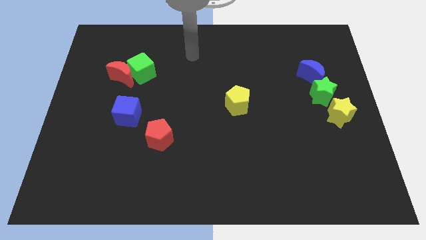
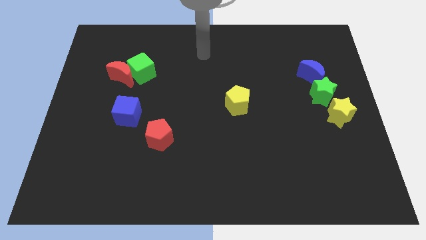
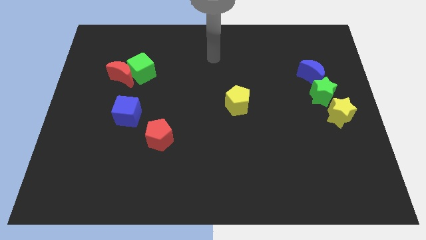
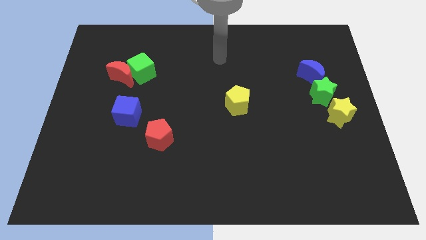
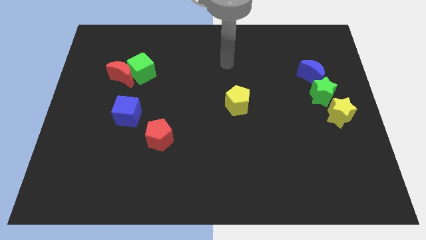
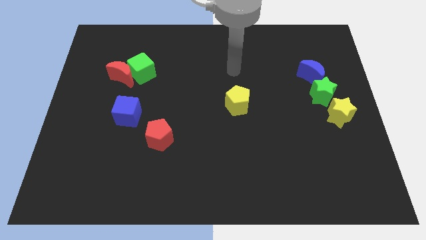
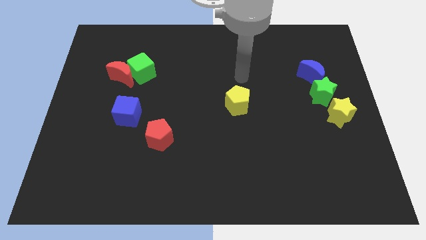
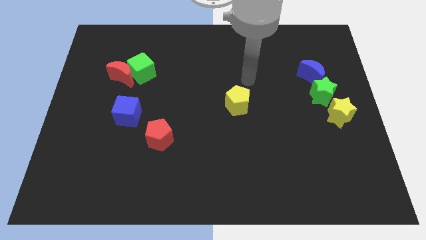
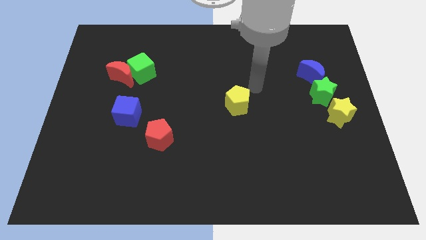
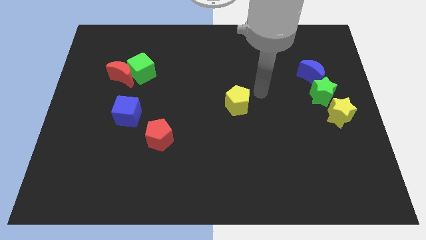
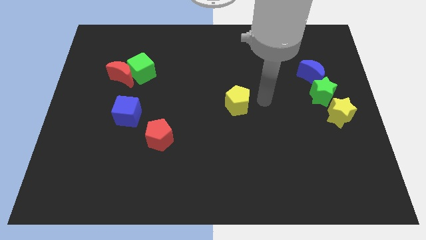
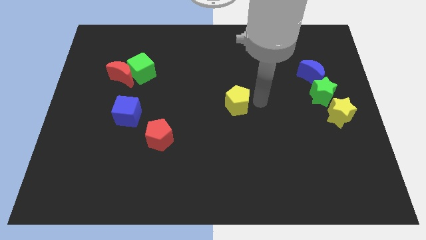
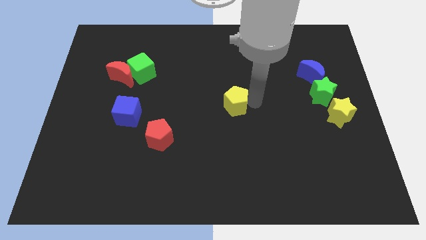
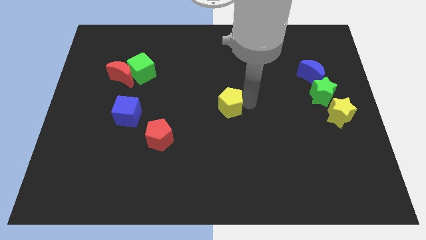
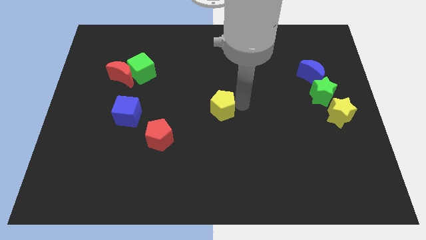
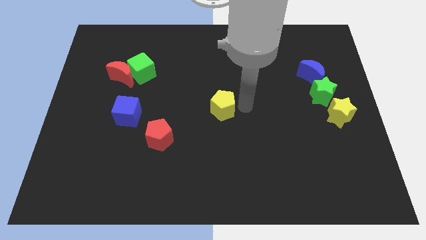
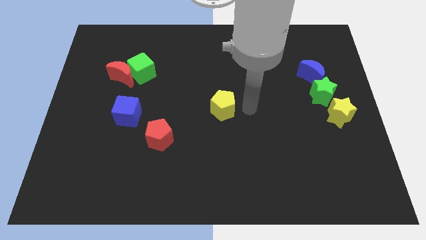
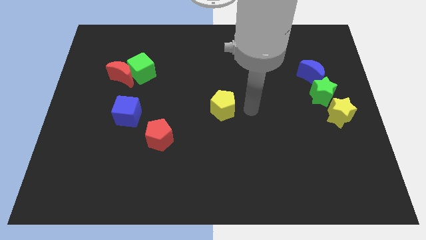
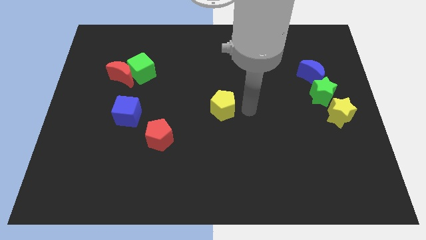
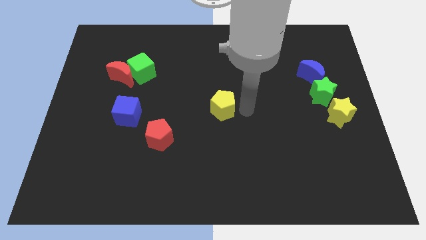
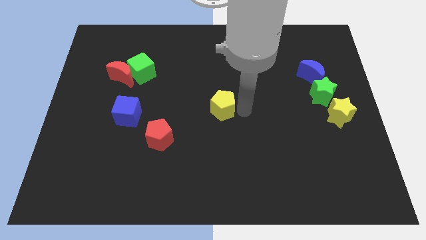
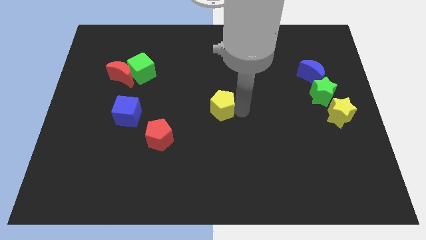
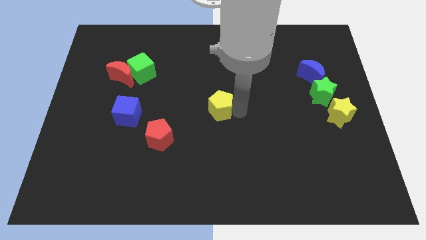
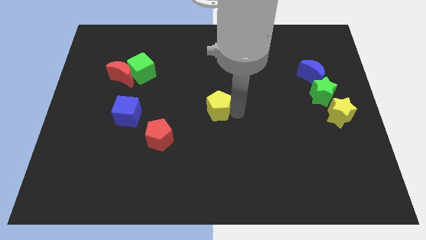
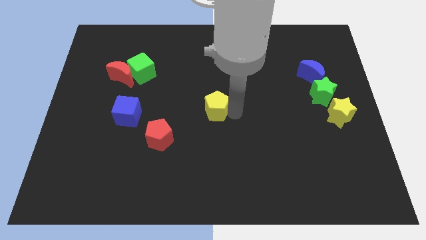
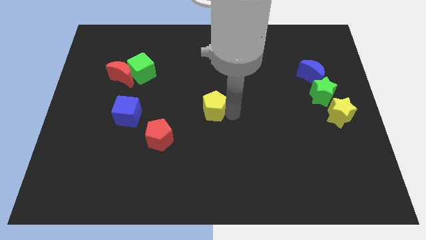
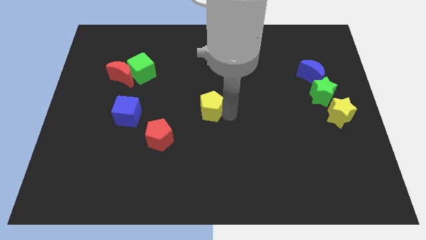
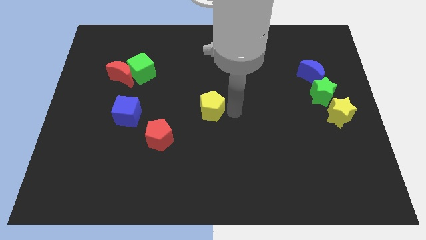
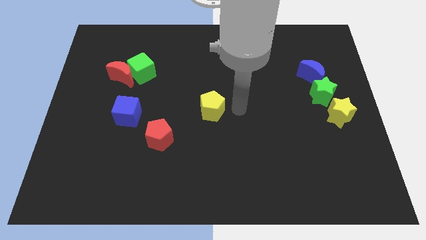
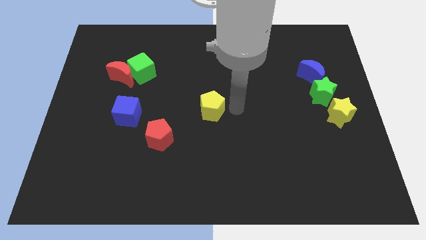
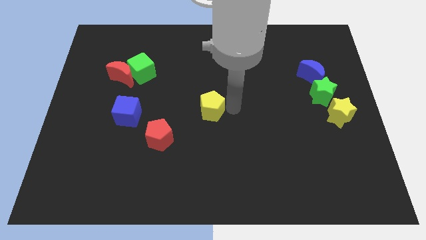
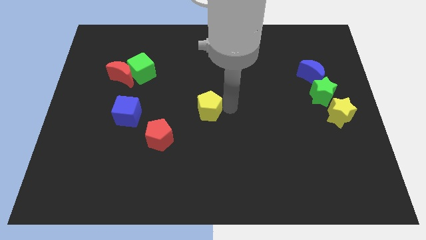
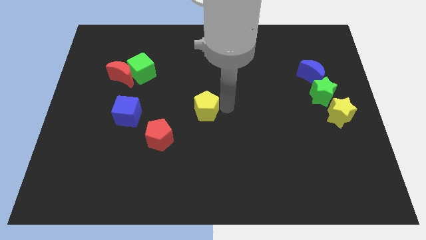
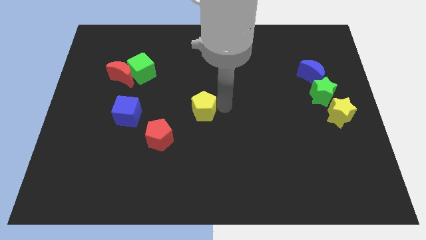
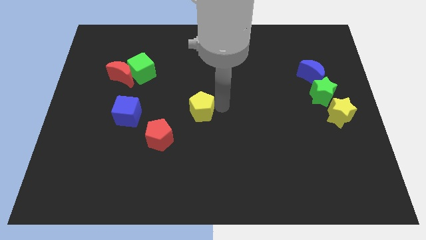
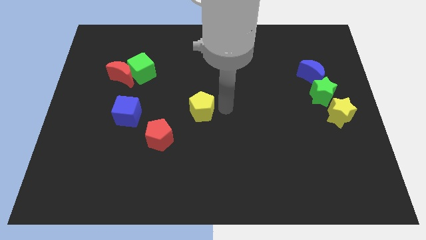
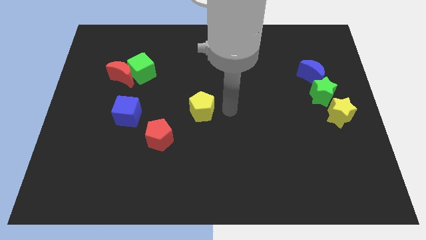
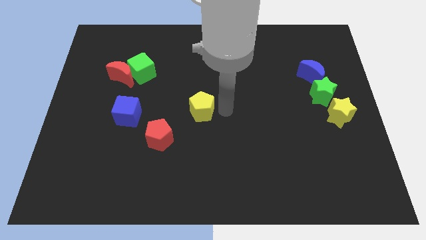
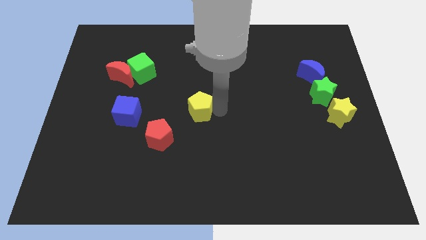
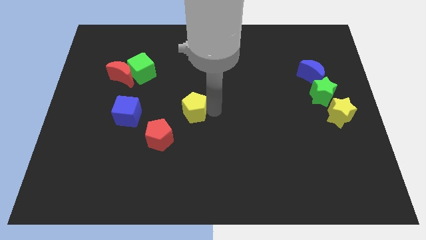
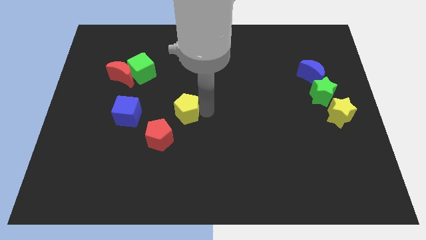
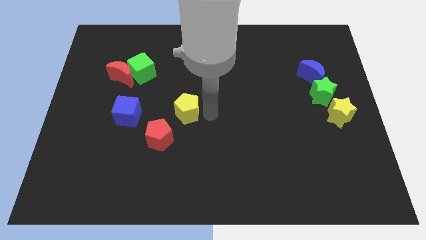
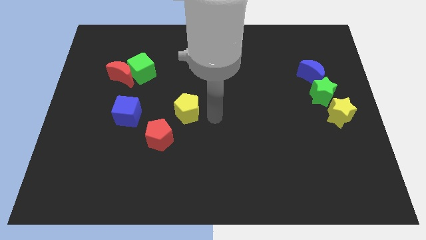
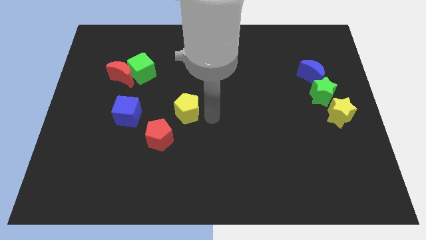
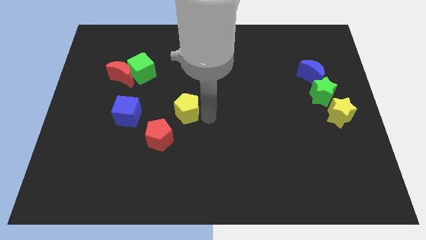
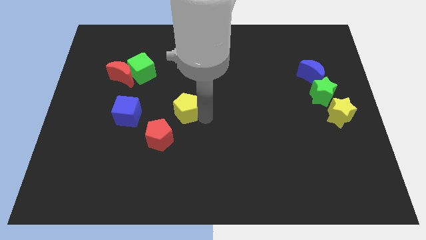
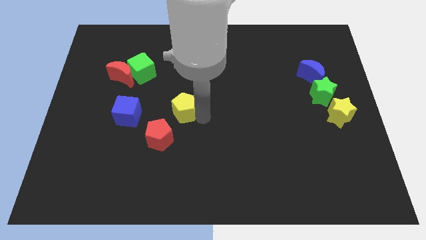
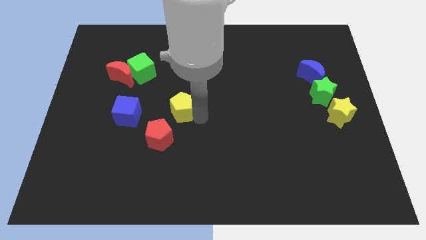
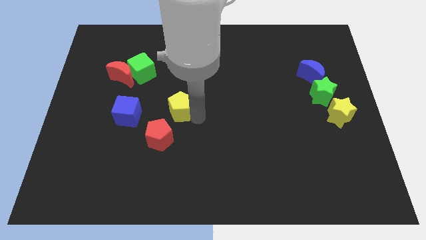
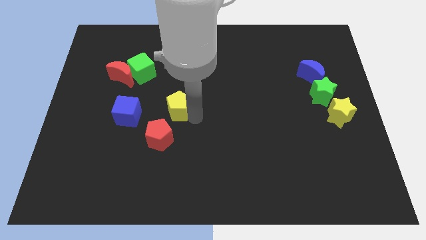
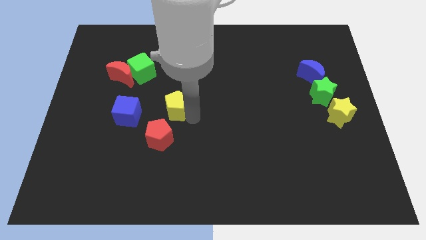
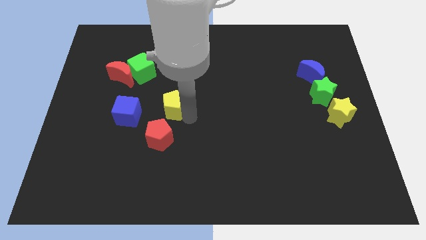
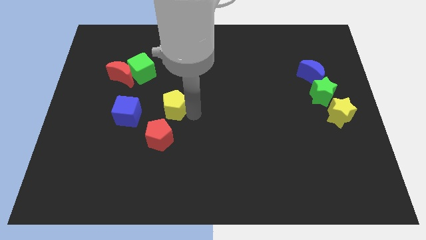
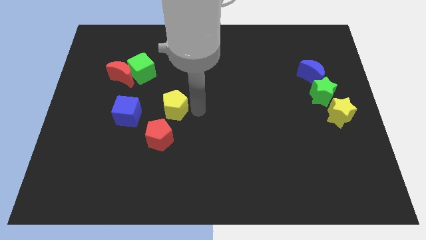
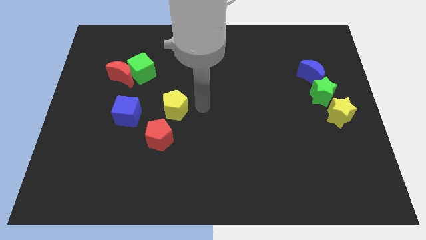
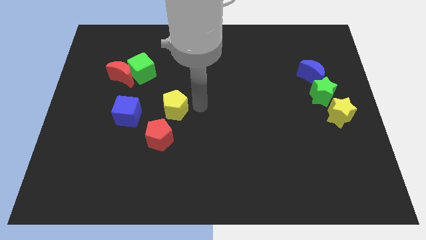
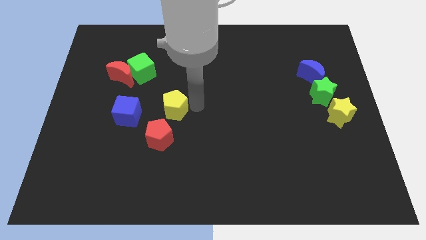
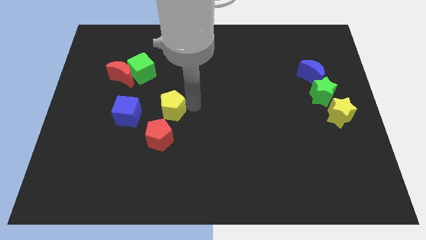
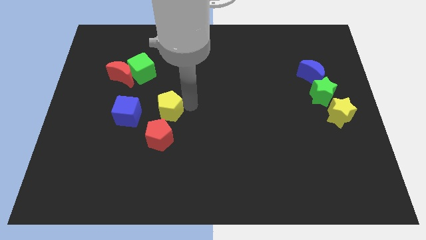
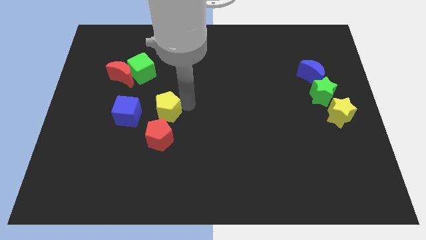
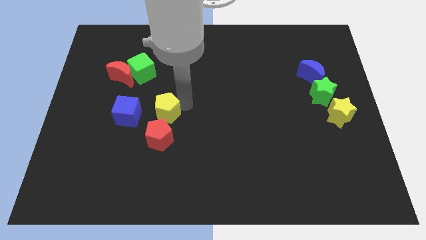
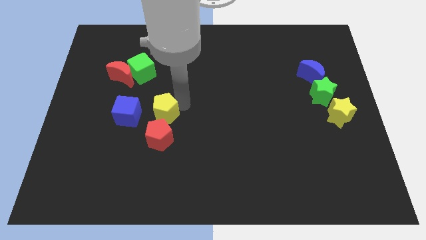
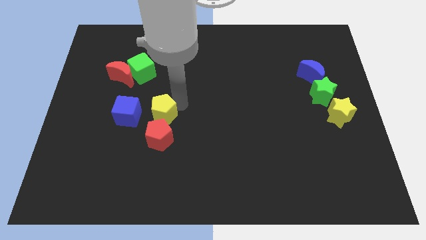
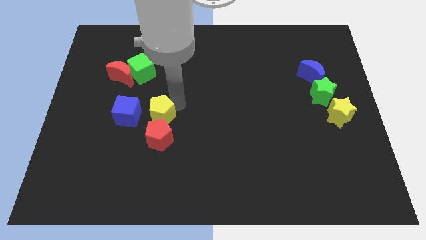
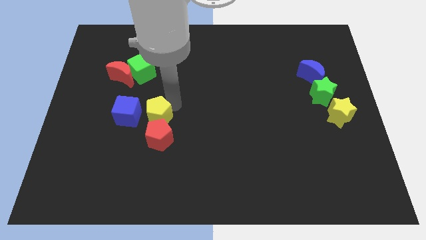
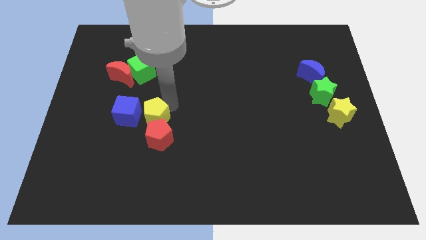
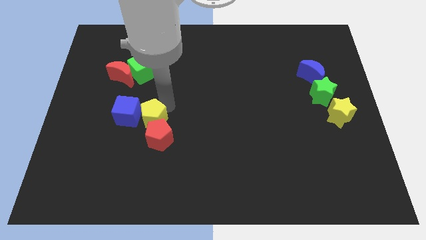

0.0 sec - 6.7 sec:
push the yellow pentagon close to the blue cube
